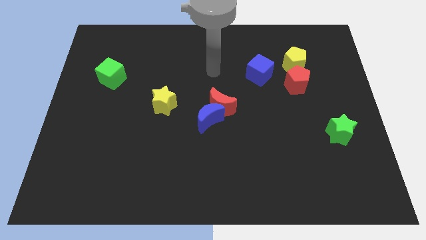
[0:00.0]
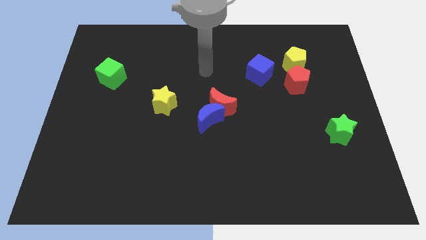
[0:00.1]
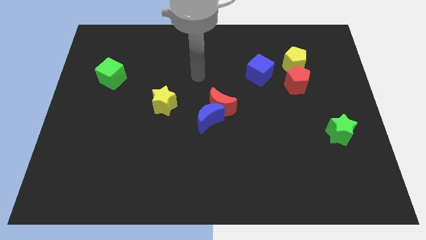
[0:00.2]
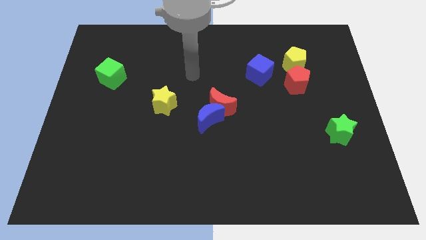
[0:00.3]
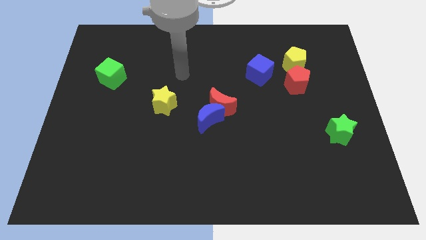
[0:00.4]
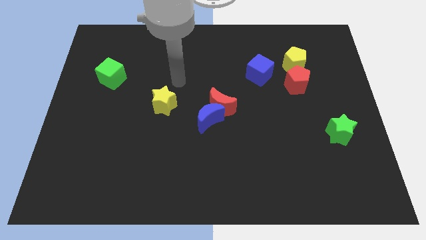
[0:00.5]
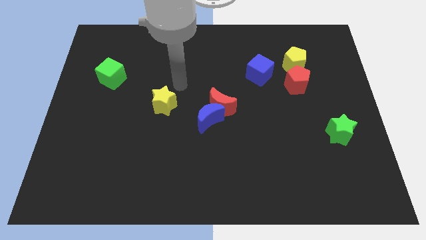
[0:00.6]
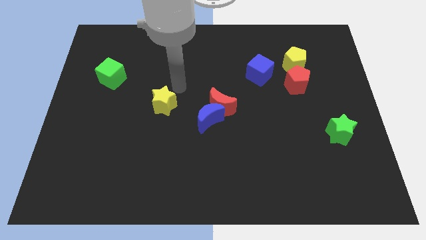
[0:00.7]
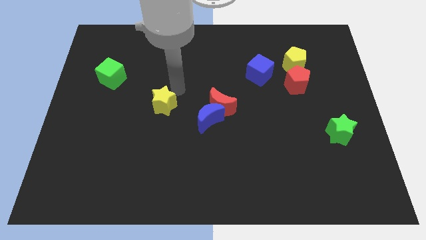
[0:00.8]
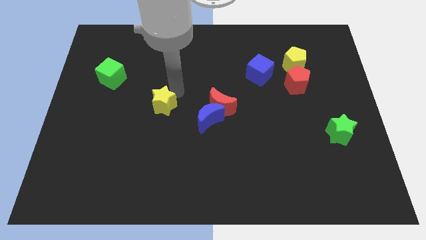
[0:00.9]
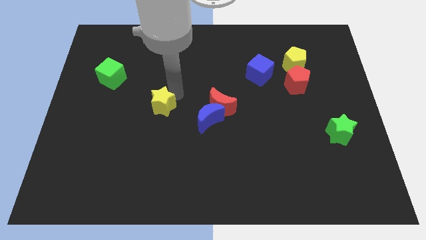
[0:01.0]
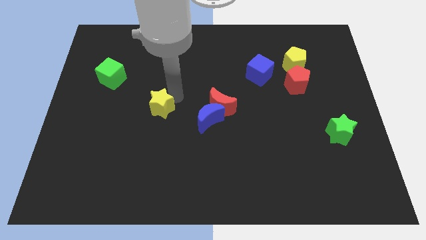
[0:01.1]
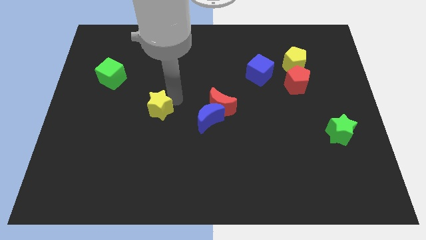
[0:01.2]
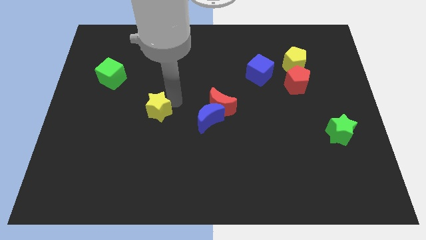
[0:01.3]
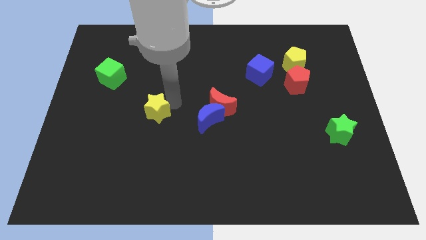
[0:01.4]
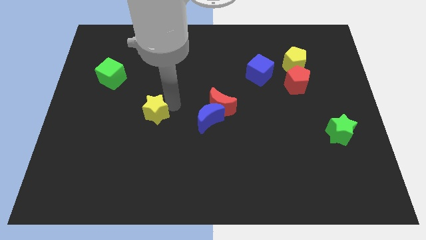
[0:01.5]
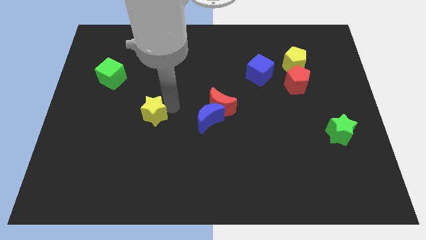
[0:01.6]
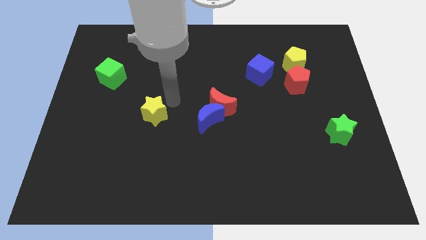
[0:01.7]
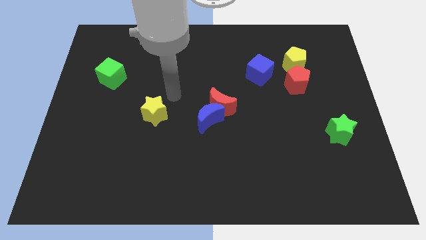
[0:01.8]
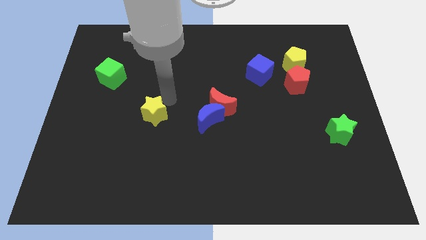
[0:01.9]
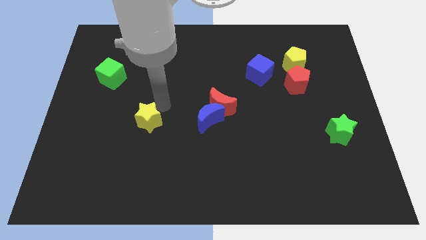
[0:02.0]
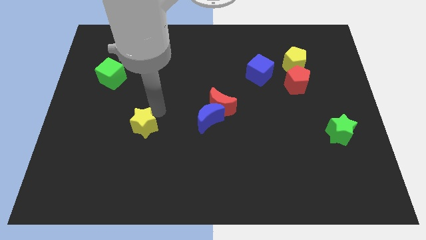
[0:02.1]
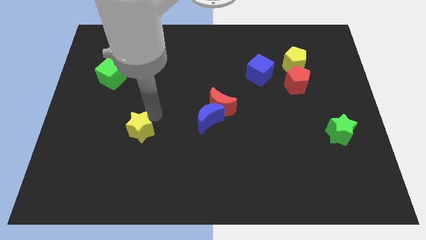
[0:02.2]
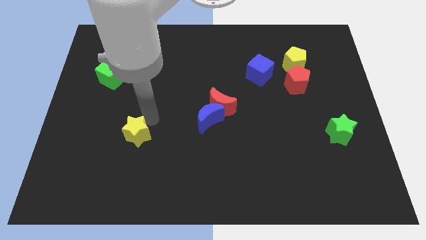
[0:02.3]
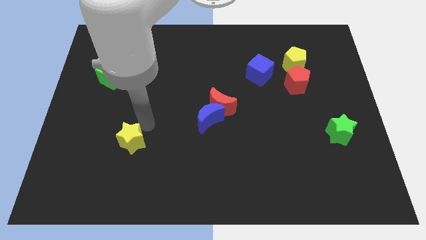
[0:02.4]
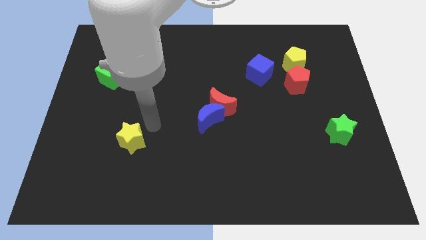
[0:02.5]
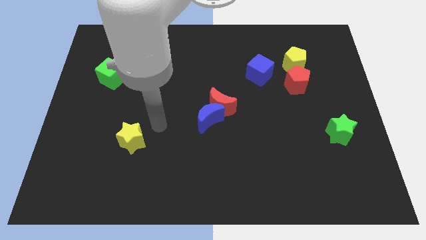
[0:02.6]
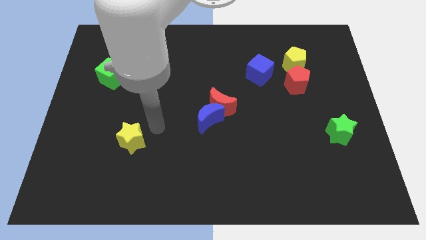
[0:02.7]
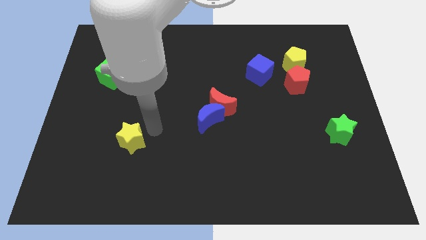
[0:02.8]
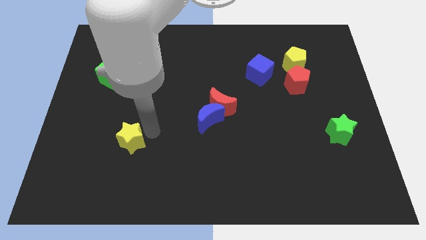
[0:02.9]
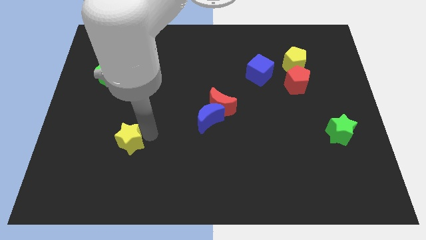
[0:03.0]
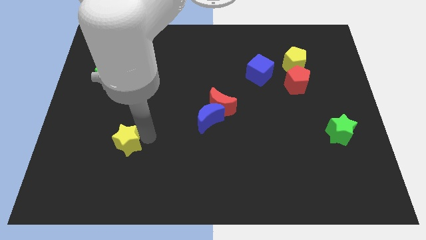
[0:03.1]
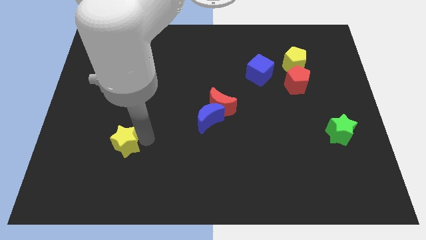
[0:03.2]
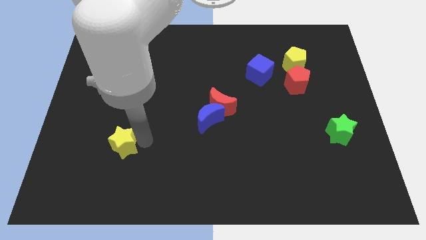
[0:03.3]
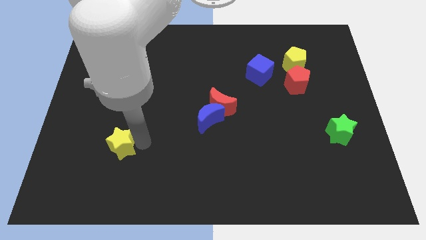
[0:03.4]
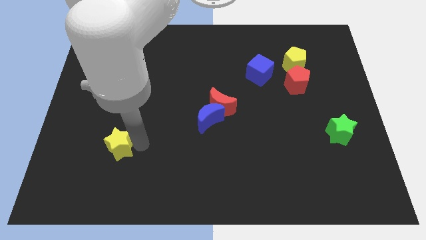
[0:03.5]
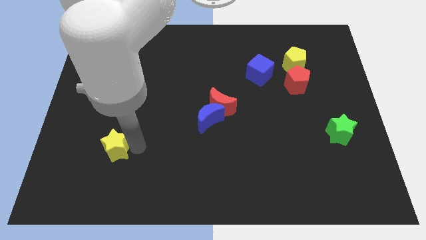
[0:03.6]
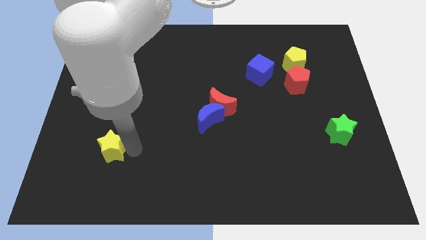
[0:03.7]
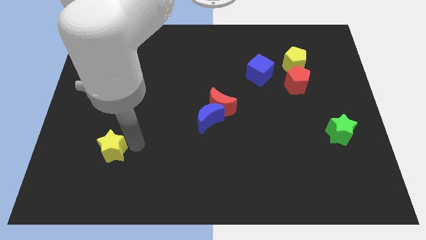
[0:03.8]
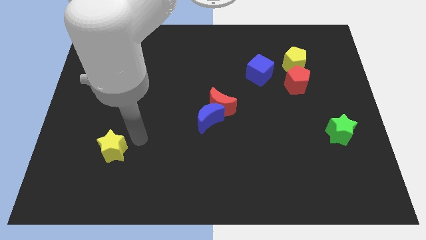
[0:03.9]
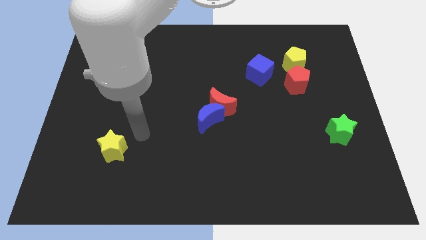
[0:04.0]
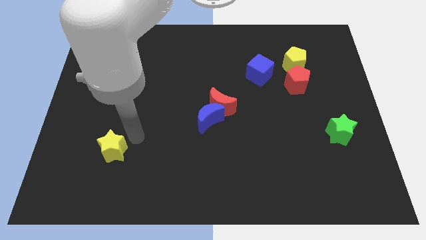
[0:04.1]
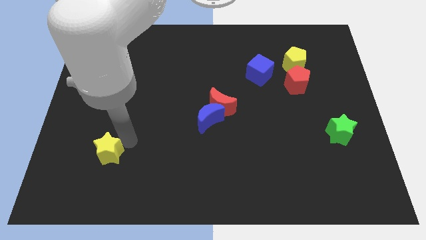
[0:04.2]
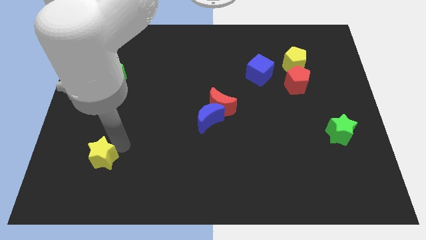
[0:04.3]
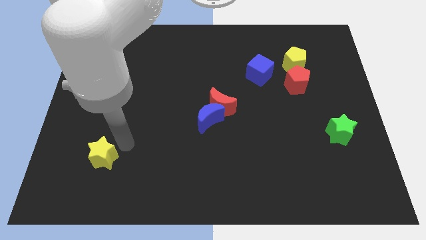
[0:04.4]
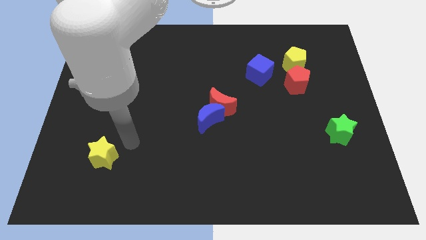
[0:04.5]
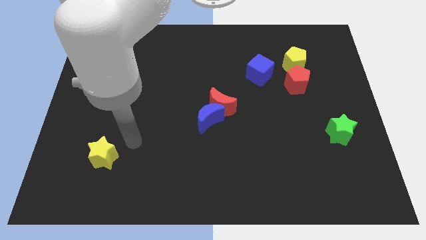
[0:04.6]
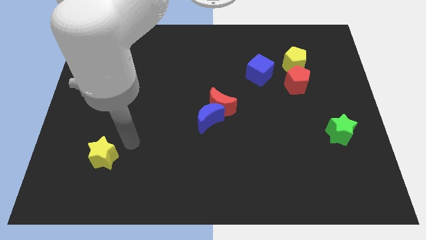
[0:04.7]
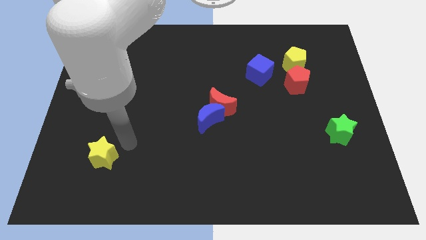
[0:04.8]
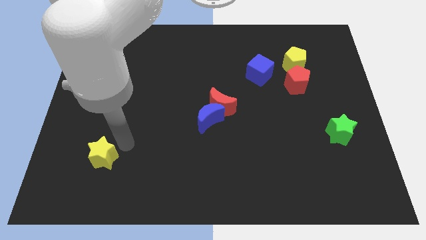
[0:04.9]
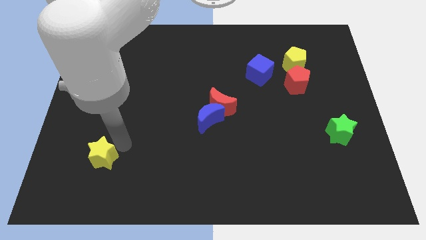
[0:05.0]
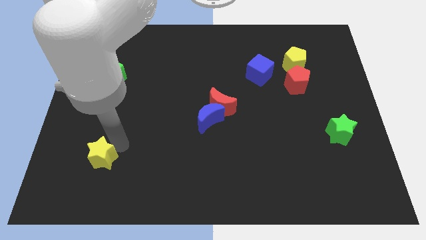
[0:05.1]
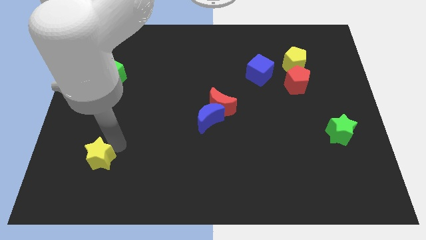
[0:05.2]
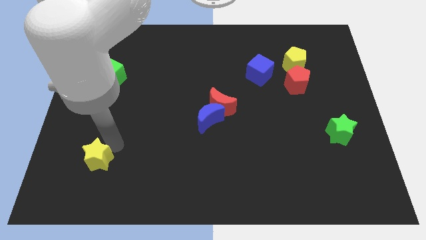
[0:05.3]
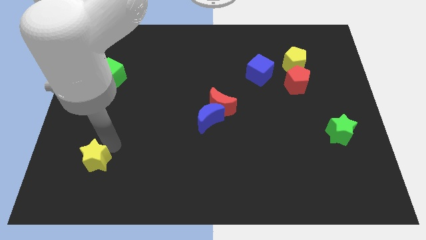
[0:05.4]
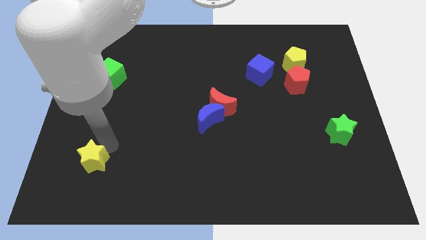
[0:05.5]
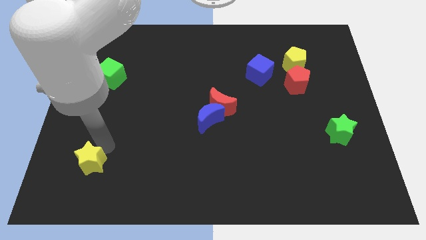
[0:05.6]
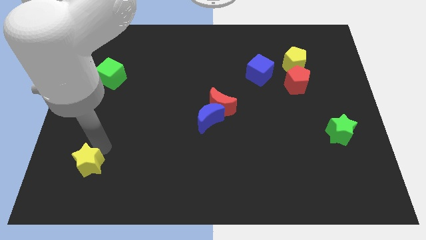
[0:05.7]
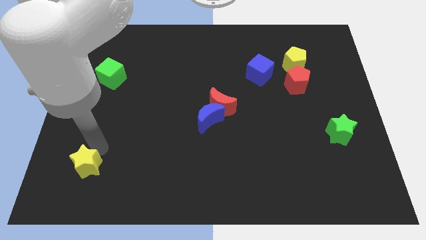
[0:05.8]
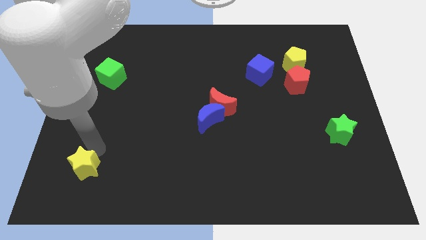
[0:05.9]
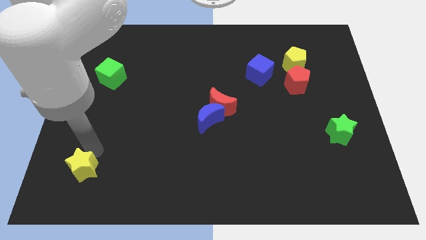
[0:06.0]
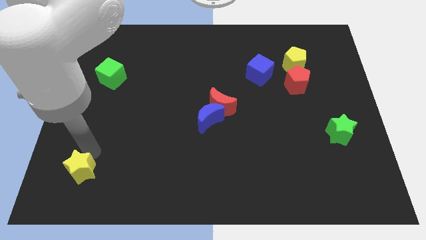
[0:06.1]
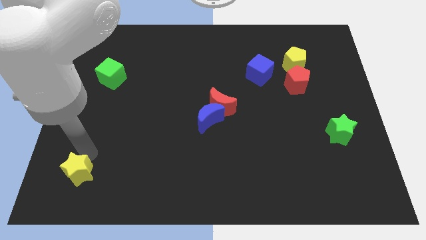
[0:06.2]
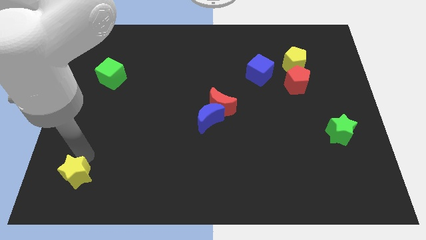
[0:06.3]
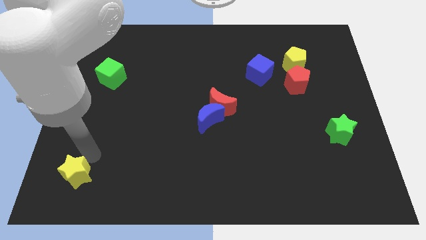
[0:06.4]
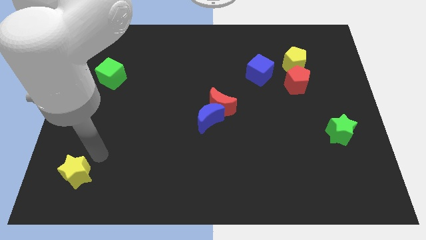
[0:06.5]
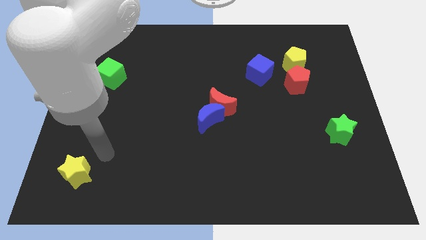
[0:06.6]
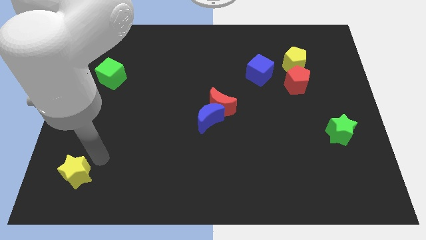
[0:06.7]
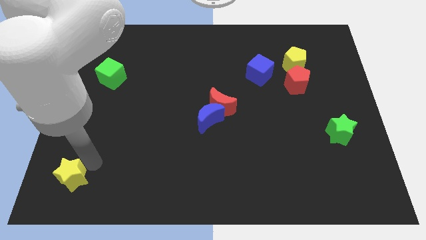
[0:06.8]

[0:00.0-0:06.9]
push the yellow star to the bottom left
